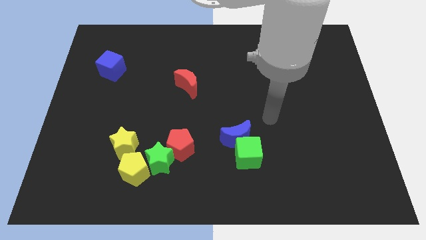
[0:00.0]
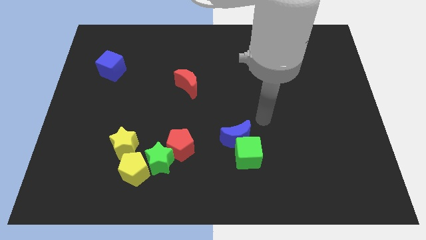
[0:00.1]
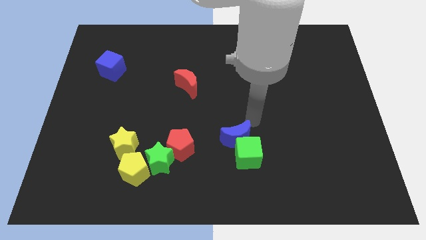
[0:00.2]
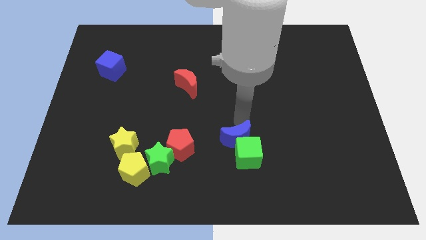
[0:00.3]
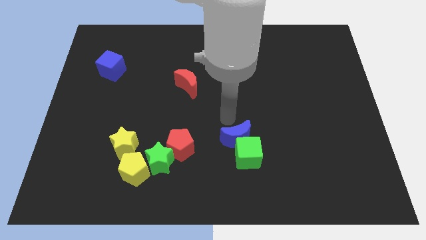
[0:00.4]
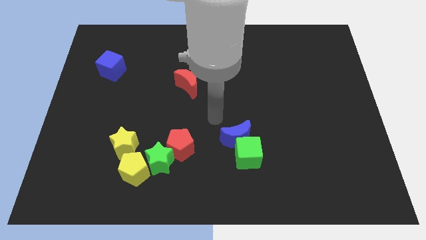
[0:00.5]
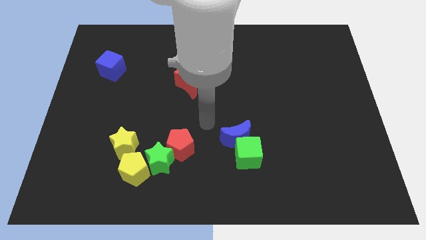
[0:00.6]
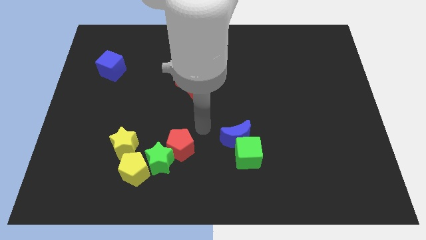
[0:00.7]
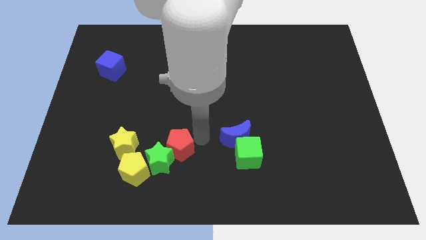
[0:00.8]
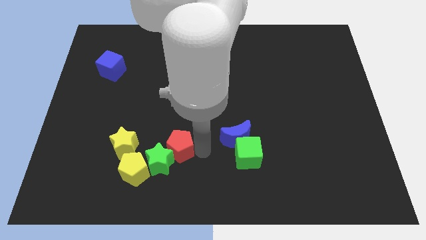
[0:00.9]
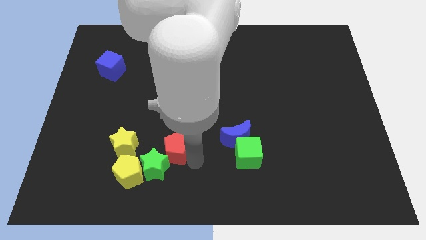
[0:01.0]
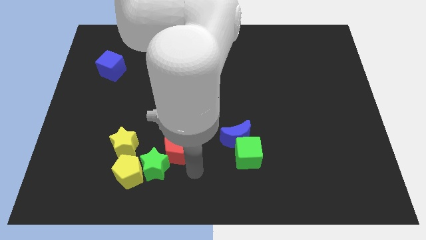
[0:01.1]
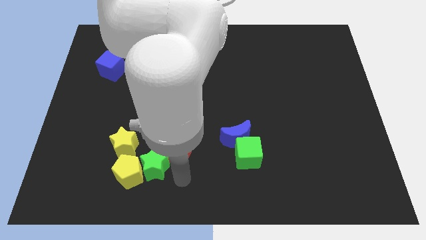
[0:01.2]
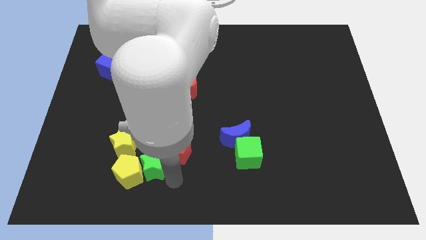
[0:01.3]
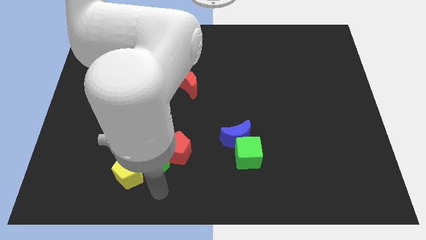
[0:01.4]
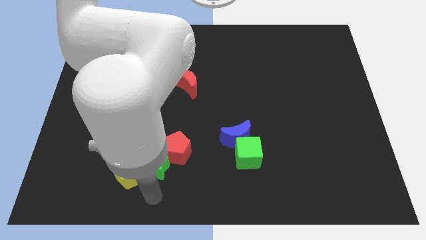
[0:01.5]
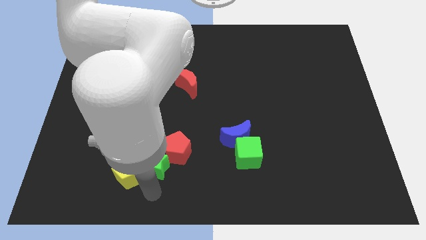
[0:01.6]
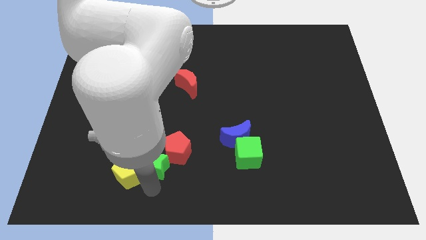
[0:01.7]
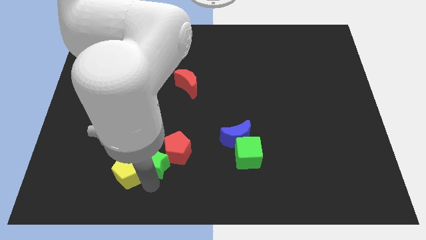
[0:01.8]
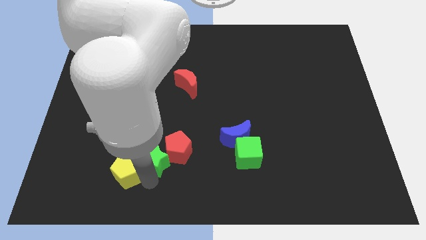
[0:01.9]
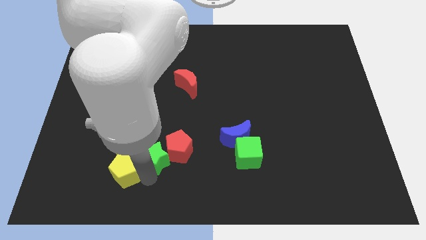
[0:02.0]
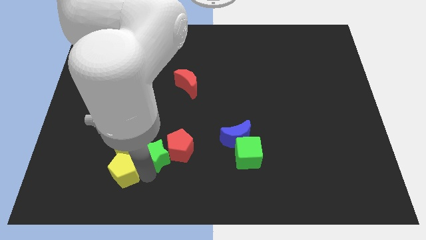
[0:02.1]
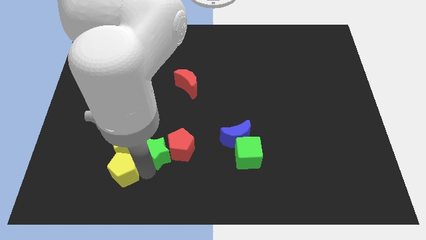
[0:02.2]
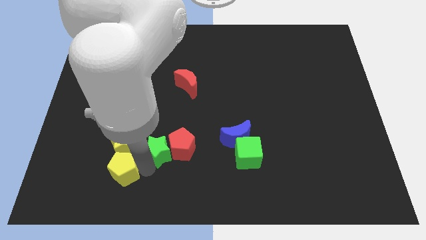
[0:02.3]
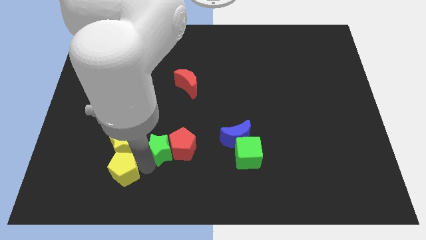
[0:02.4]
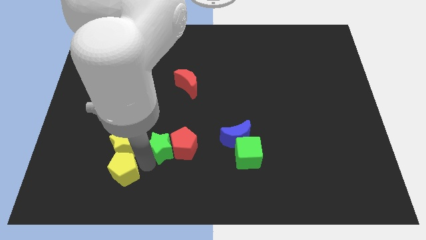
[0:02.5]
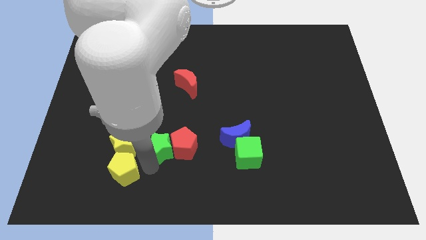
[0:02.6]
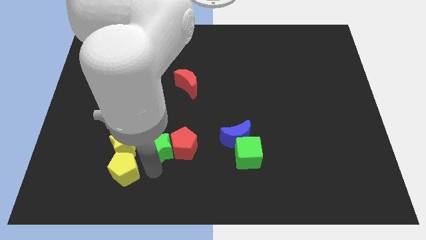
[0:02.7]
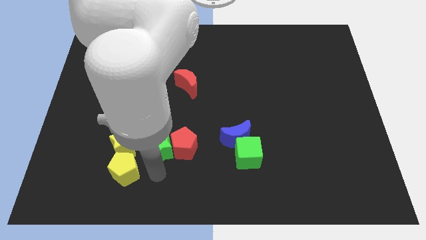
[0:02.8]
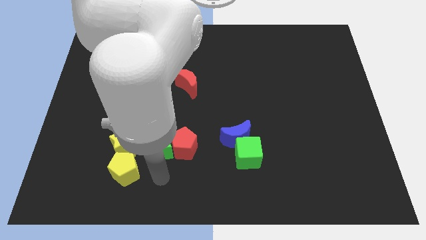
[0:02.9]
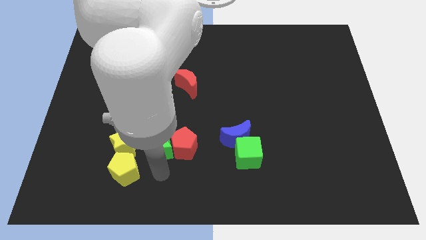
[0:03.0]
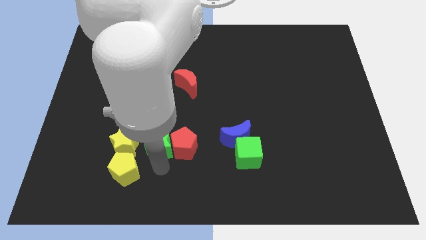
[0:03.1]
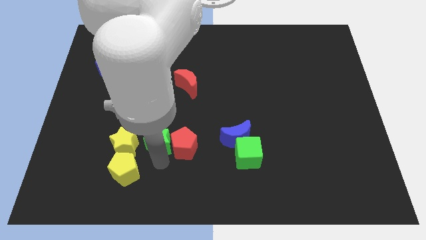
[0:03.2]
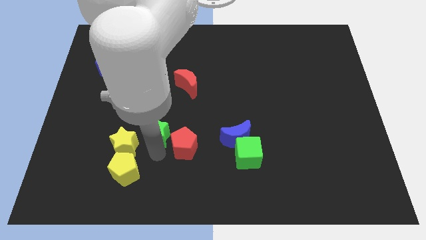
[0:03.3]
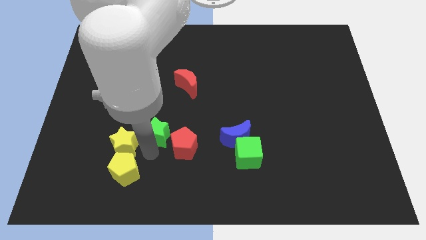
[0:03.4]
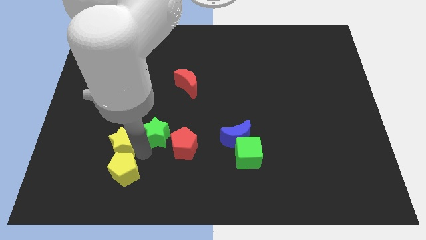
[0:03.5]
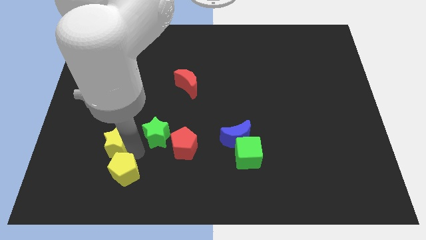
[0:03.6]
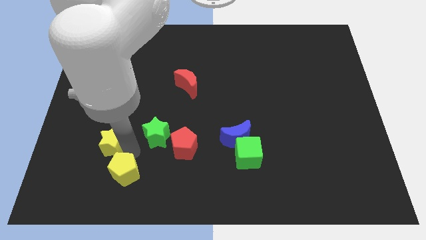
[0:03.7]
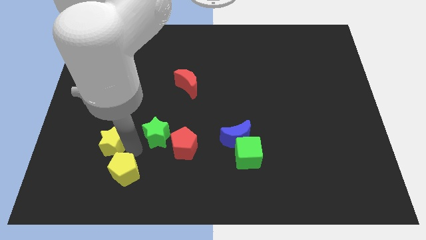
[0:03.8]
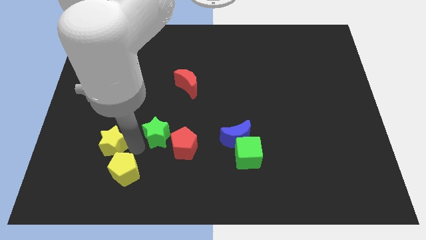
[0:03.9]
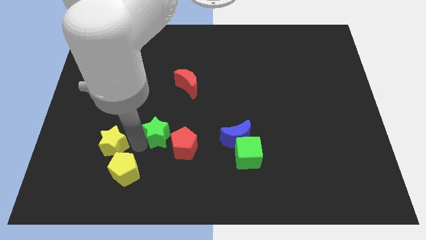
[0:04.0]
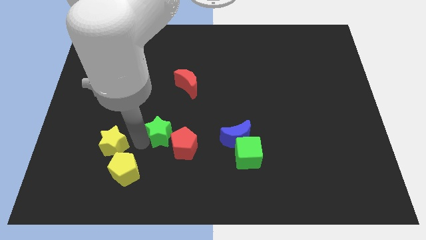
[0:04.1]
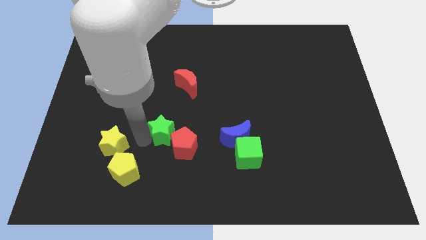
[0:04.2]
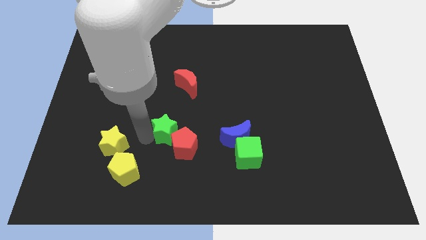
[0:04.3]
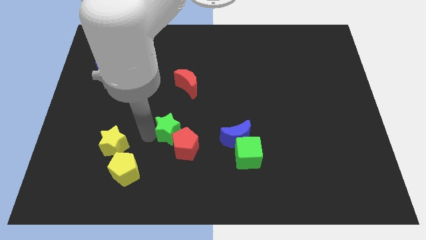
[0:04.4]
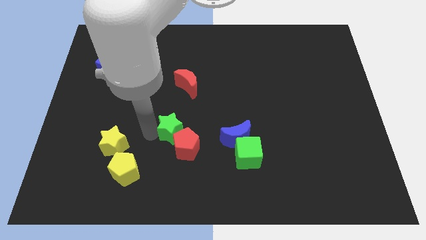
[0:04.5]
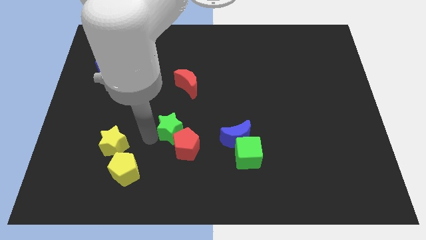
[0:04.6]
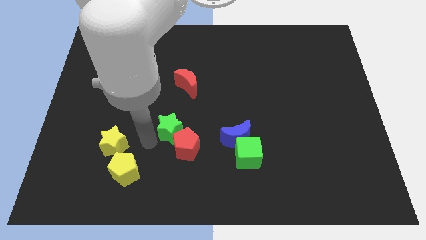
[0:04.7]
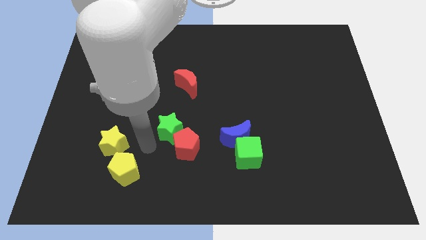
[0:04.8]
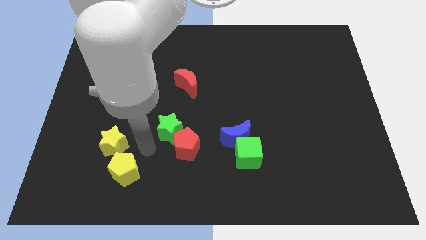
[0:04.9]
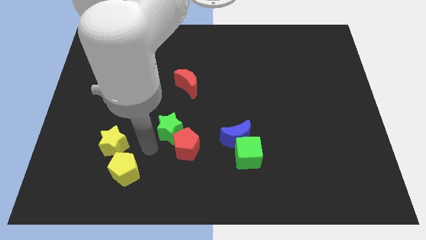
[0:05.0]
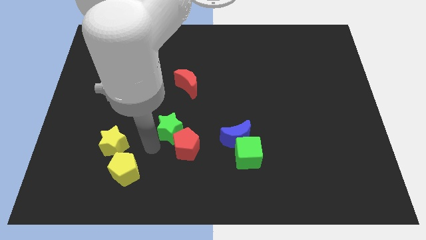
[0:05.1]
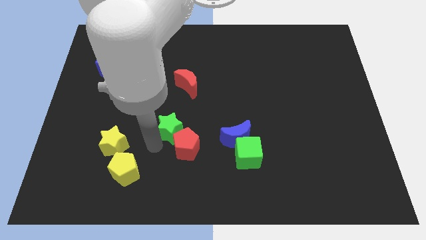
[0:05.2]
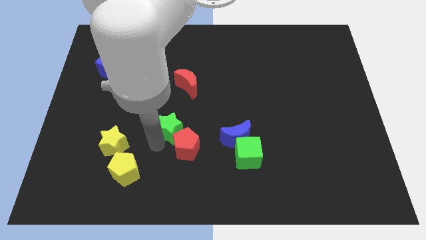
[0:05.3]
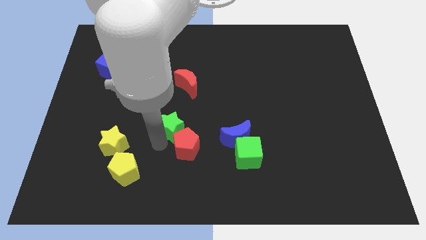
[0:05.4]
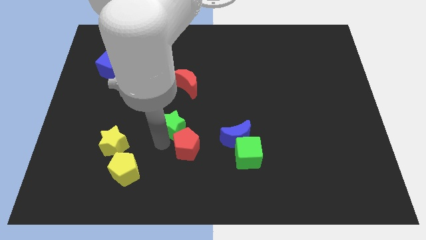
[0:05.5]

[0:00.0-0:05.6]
move the green star to the middle of the board

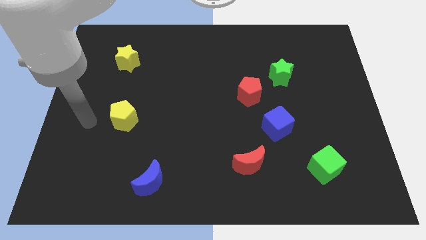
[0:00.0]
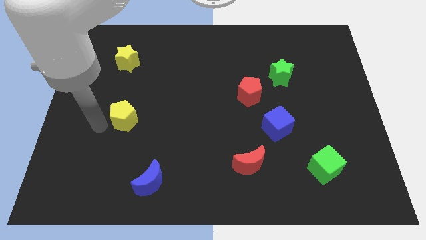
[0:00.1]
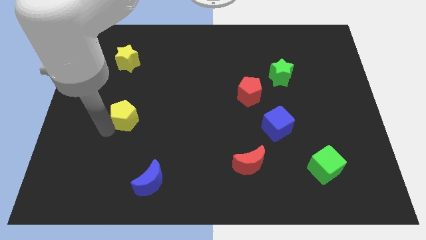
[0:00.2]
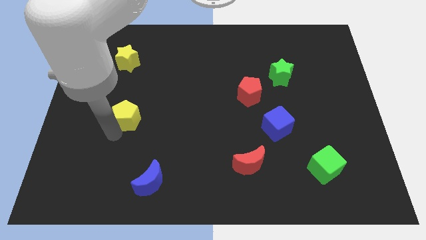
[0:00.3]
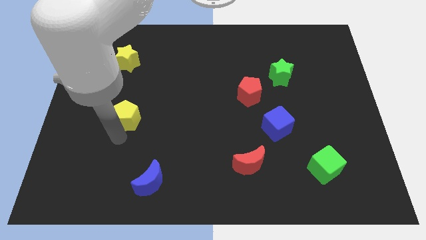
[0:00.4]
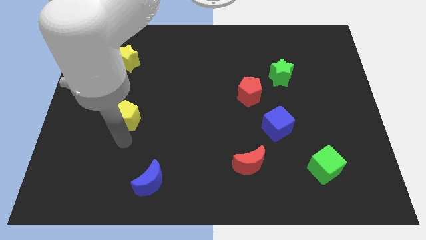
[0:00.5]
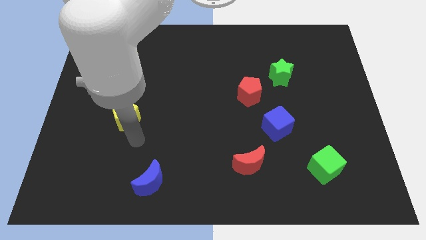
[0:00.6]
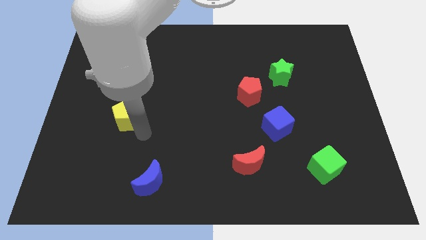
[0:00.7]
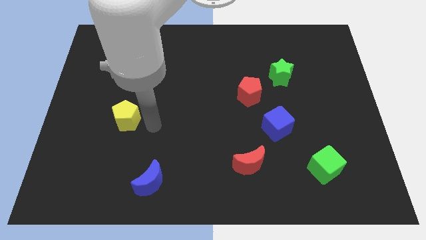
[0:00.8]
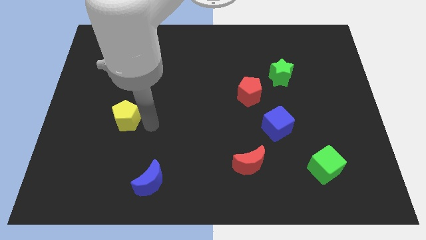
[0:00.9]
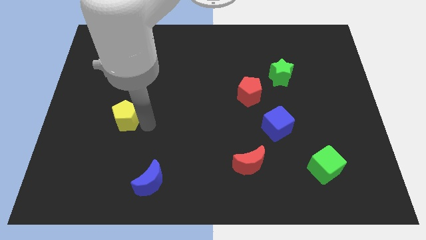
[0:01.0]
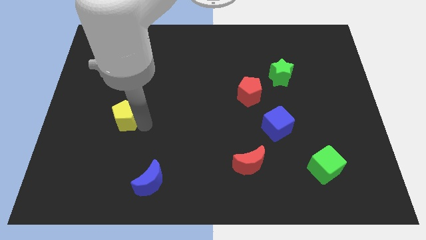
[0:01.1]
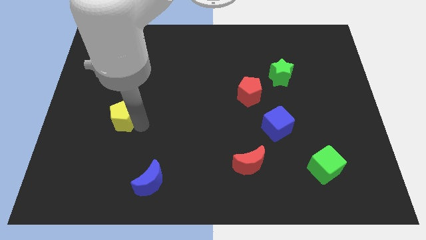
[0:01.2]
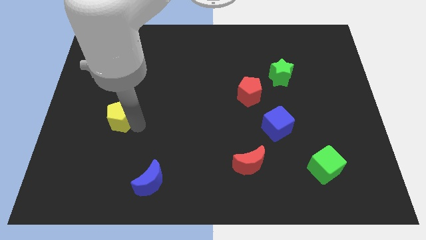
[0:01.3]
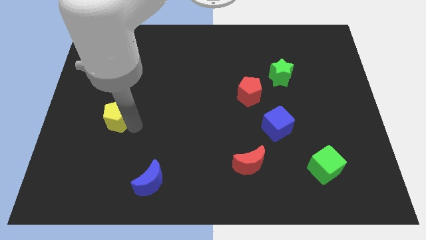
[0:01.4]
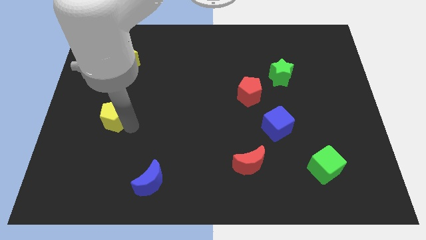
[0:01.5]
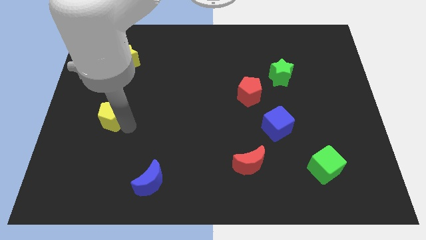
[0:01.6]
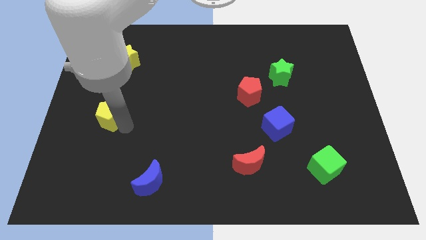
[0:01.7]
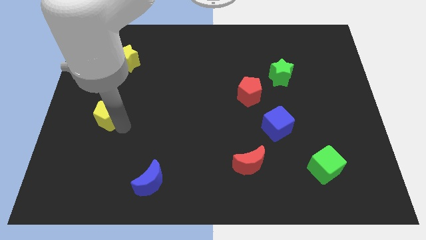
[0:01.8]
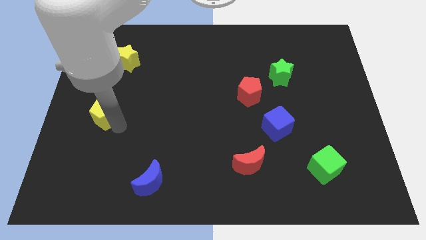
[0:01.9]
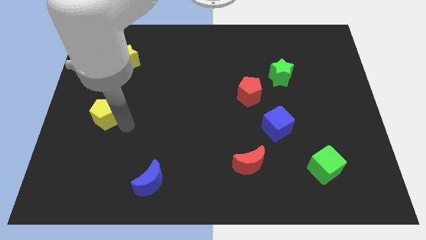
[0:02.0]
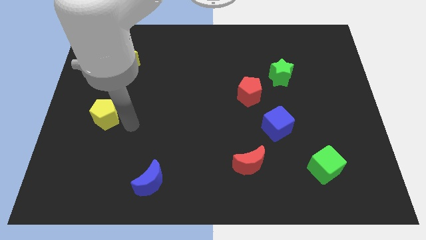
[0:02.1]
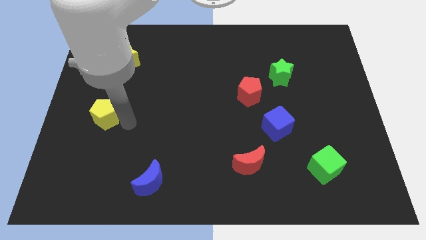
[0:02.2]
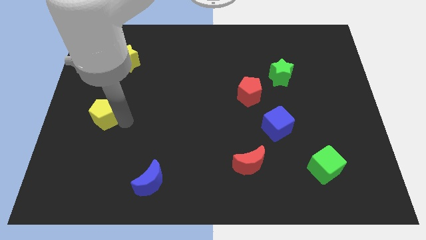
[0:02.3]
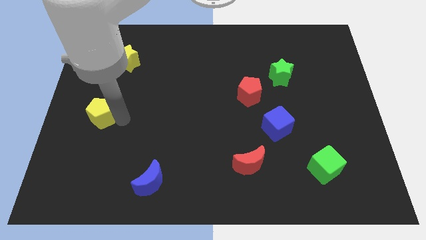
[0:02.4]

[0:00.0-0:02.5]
slide the yellow pentagon to the left side of the board

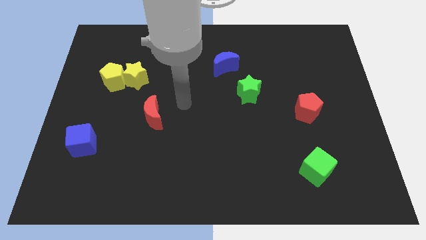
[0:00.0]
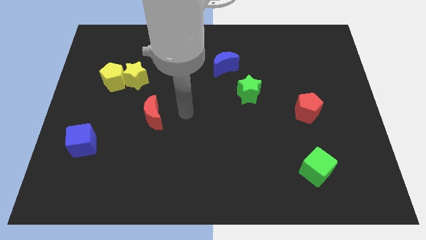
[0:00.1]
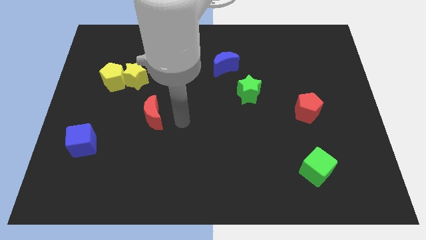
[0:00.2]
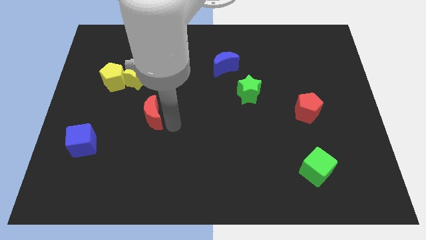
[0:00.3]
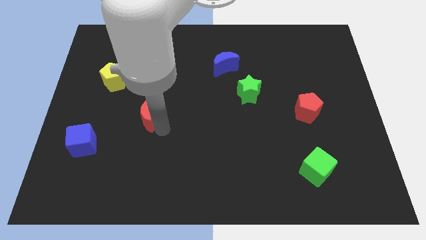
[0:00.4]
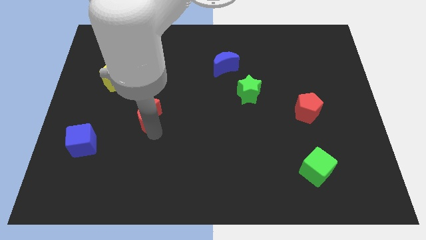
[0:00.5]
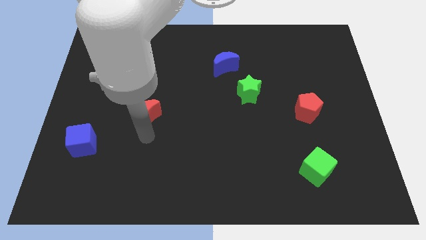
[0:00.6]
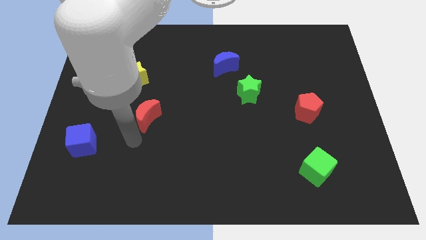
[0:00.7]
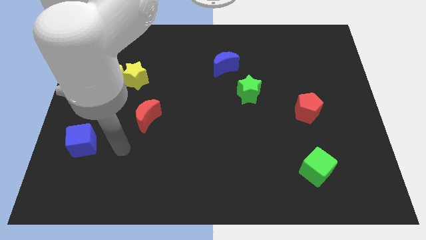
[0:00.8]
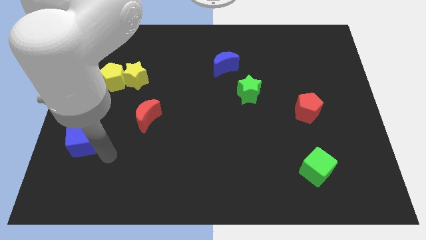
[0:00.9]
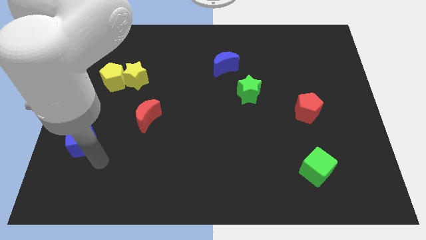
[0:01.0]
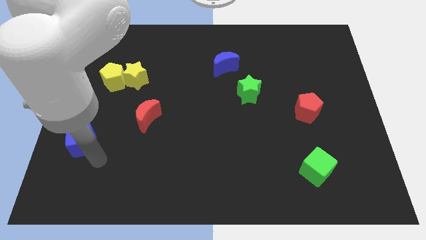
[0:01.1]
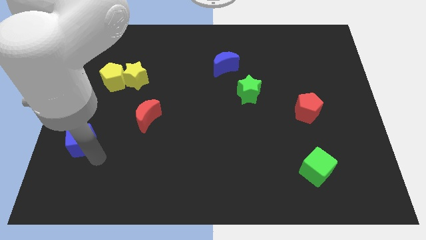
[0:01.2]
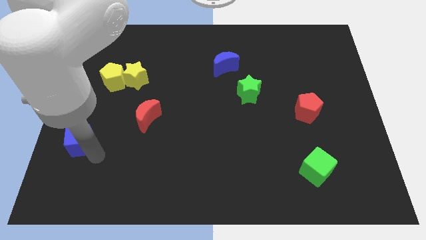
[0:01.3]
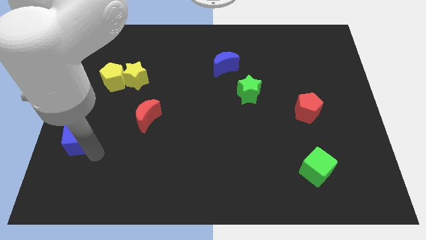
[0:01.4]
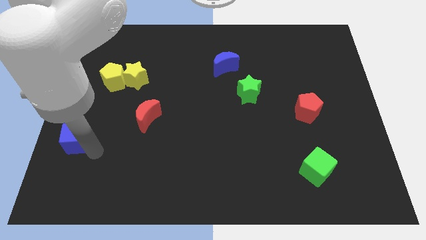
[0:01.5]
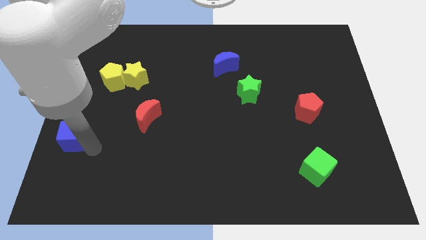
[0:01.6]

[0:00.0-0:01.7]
slide the blue cube to the center left
